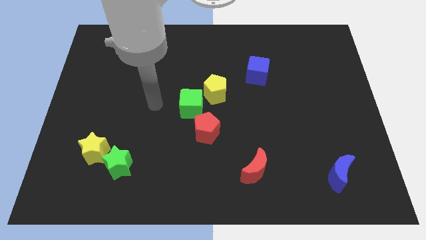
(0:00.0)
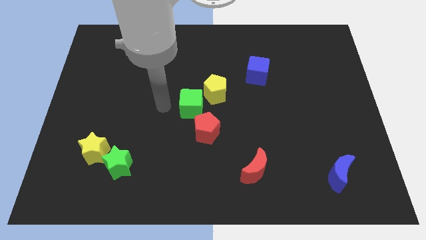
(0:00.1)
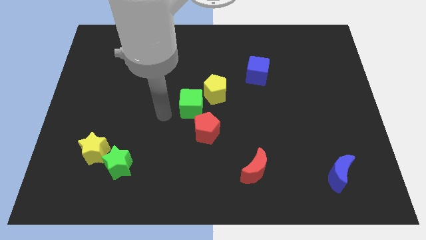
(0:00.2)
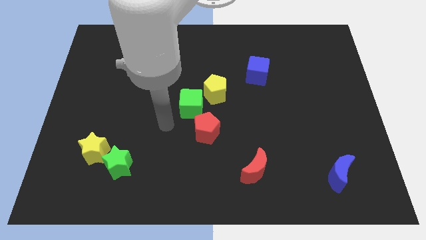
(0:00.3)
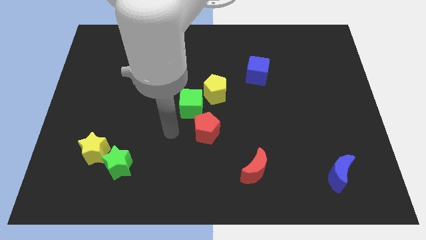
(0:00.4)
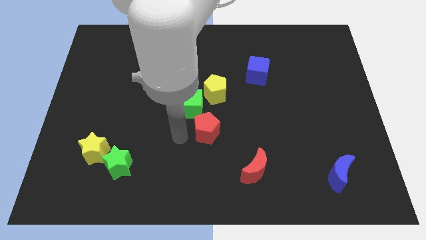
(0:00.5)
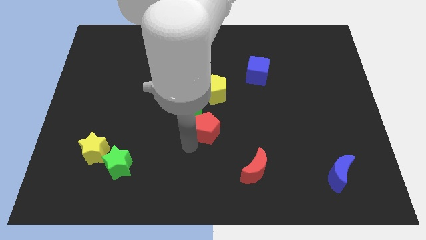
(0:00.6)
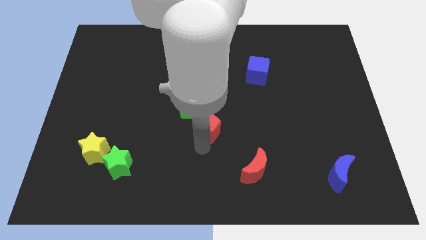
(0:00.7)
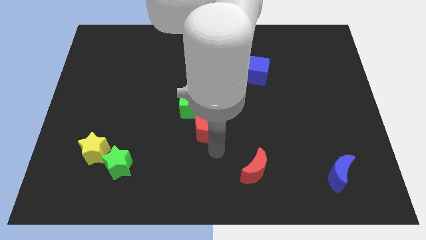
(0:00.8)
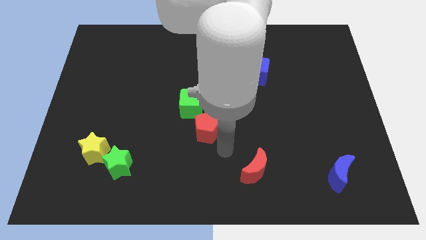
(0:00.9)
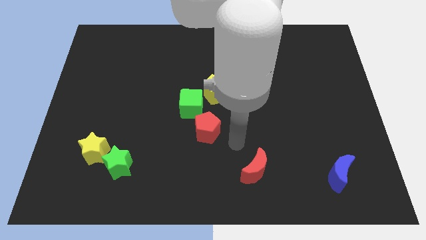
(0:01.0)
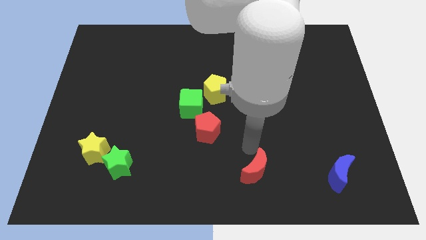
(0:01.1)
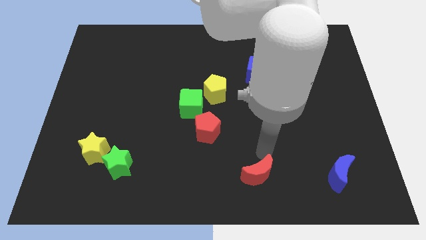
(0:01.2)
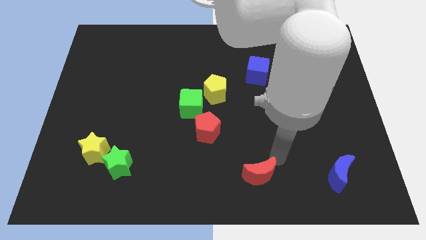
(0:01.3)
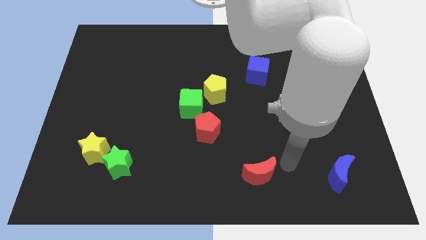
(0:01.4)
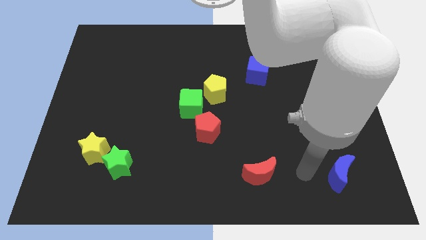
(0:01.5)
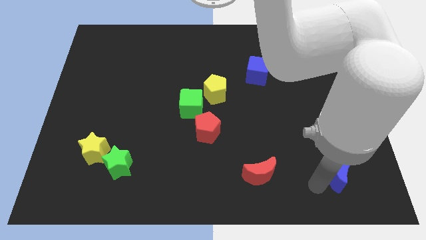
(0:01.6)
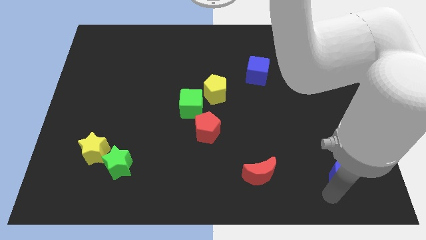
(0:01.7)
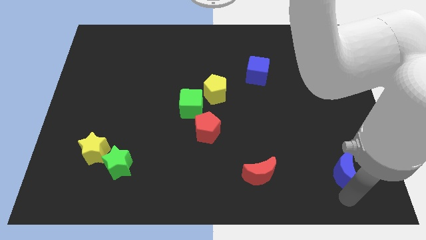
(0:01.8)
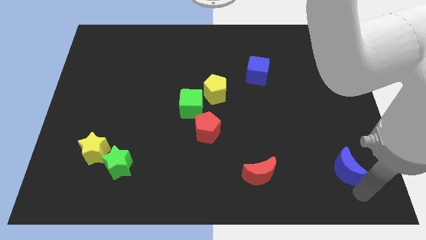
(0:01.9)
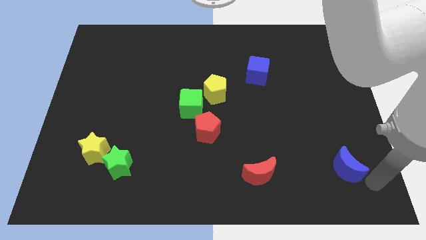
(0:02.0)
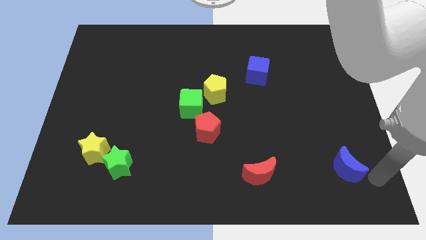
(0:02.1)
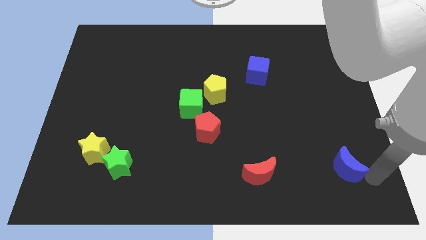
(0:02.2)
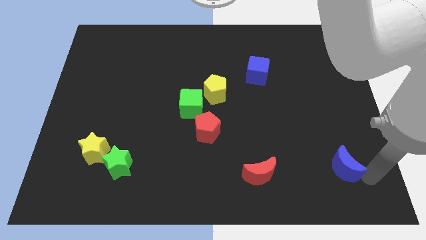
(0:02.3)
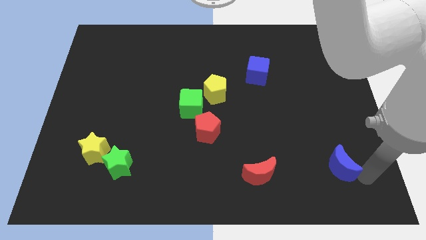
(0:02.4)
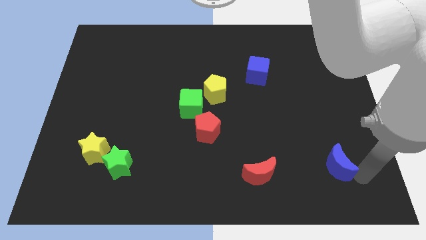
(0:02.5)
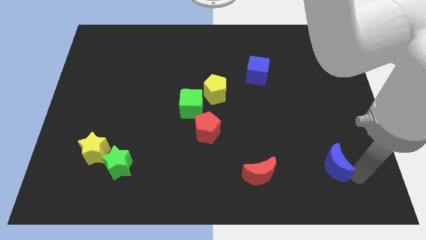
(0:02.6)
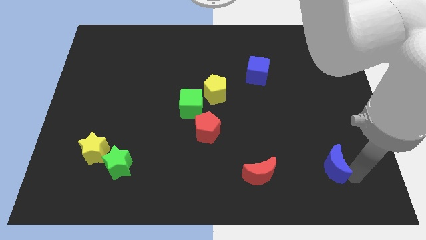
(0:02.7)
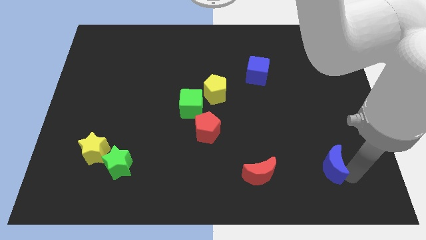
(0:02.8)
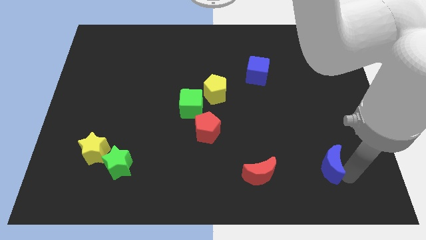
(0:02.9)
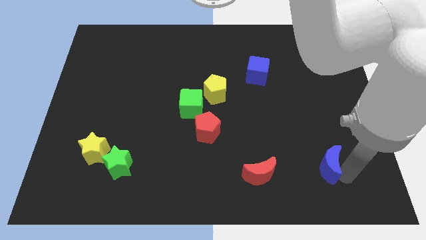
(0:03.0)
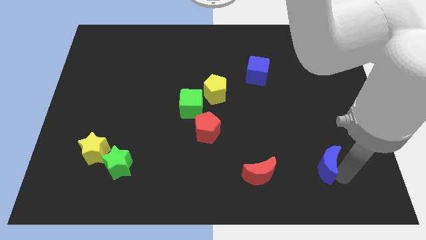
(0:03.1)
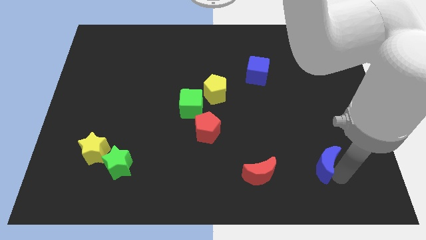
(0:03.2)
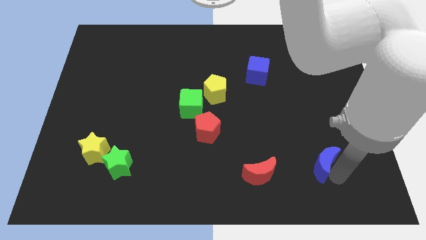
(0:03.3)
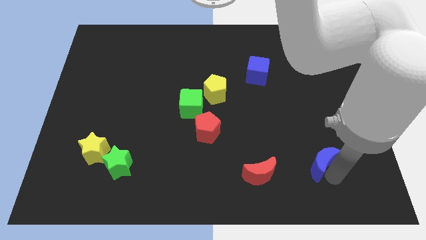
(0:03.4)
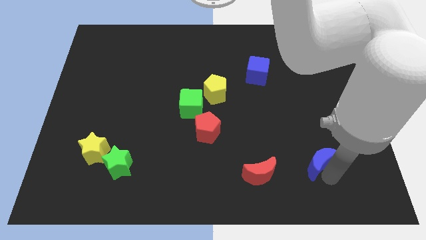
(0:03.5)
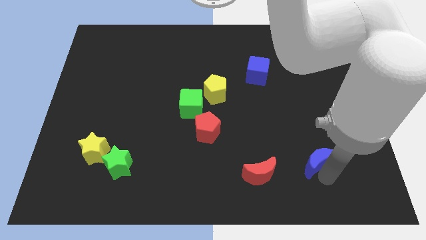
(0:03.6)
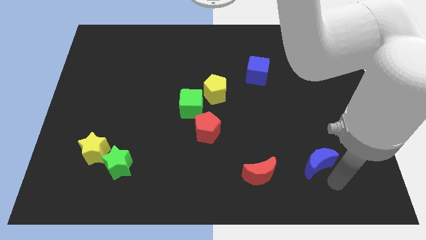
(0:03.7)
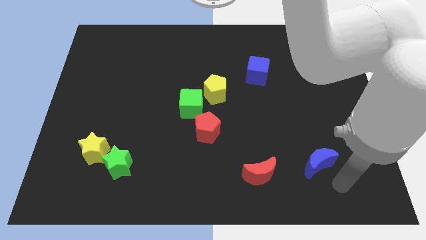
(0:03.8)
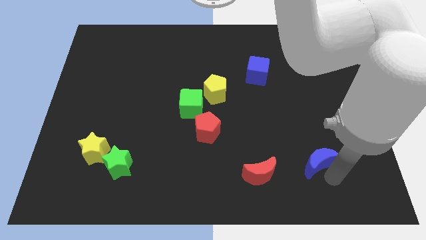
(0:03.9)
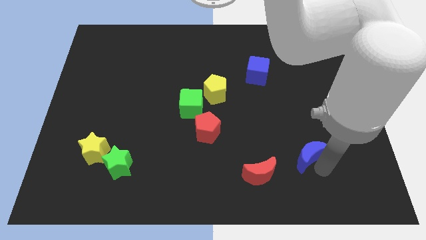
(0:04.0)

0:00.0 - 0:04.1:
slightly move the blue moon diagonally up and to the left

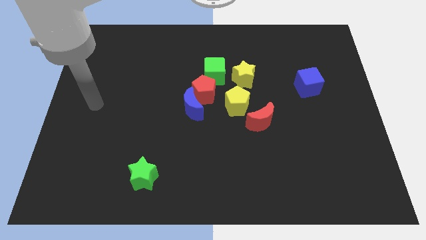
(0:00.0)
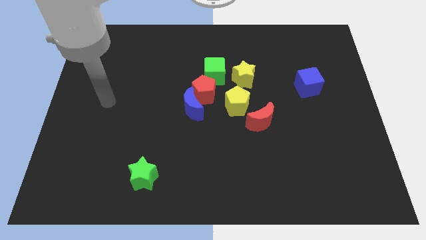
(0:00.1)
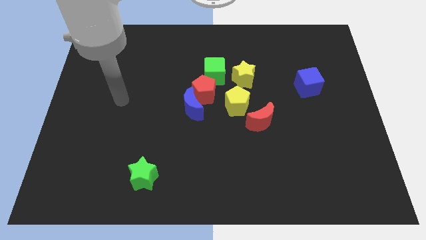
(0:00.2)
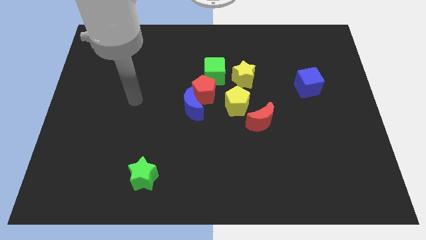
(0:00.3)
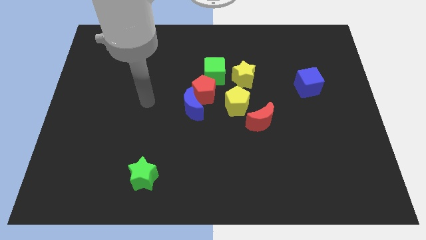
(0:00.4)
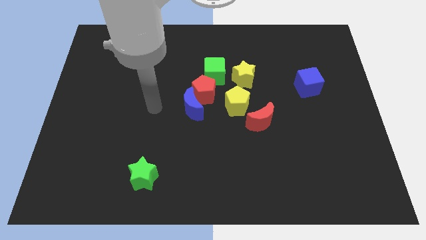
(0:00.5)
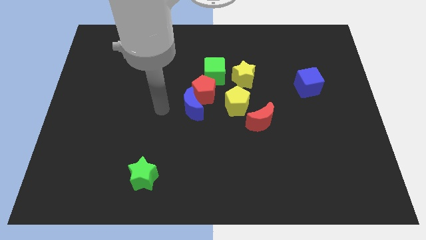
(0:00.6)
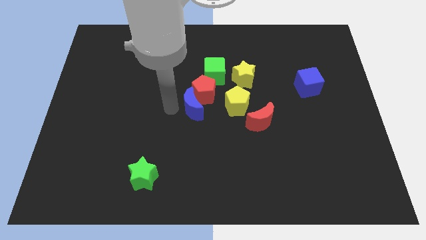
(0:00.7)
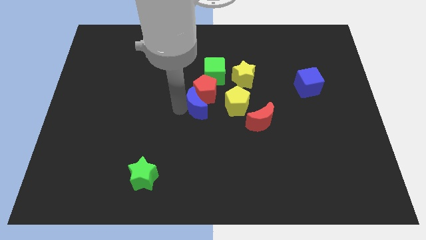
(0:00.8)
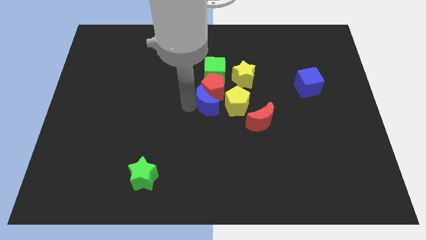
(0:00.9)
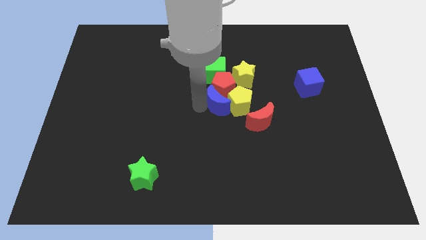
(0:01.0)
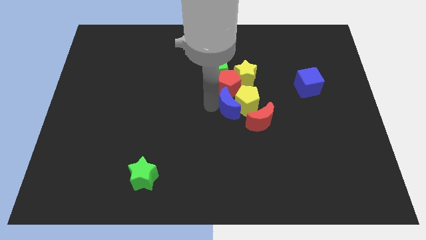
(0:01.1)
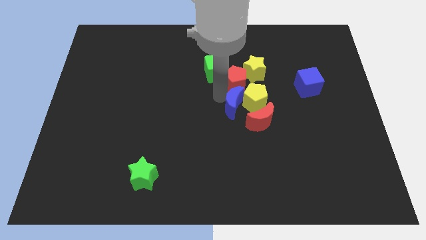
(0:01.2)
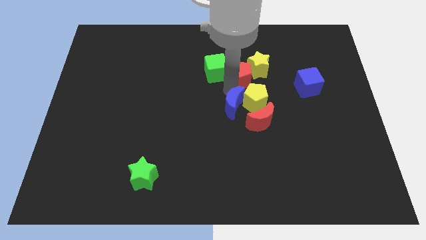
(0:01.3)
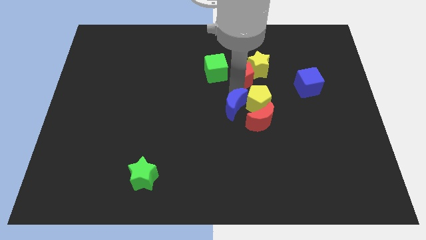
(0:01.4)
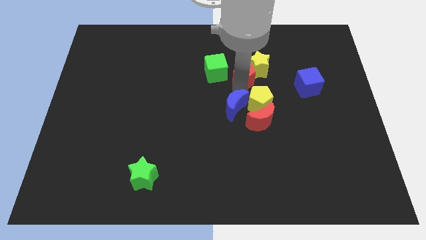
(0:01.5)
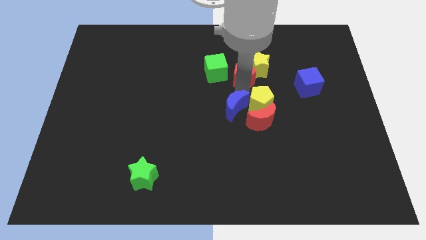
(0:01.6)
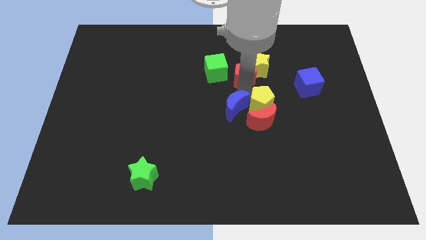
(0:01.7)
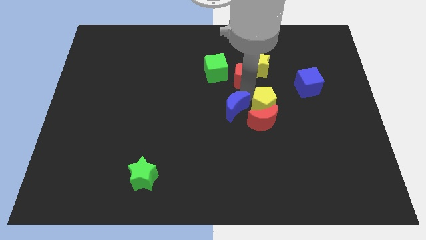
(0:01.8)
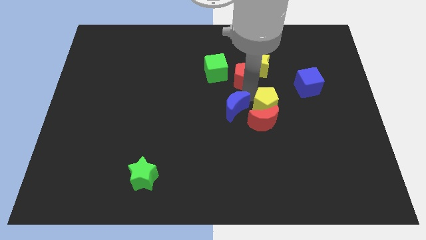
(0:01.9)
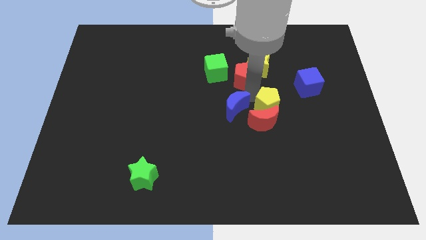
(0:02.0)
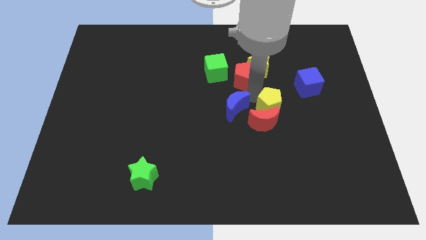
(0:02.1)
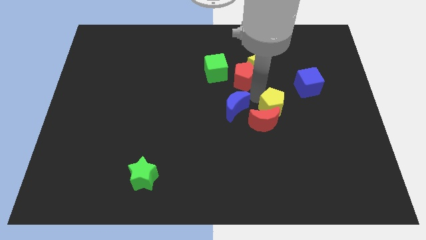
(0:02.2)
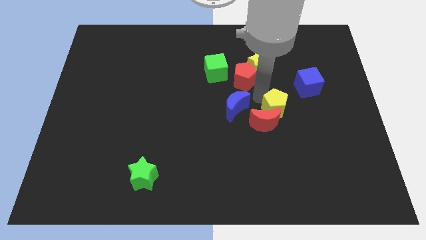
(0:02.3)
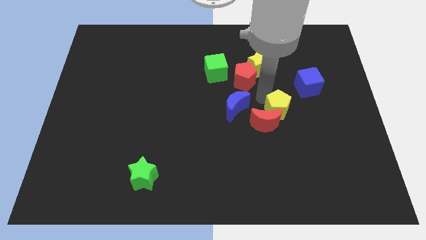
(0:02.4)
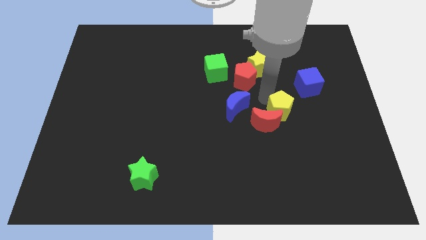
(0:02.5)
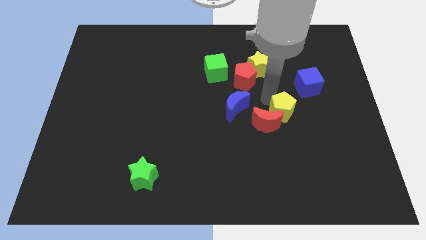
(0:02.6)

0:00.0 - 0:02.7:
slightly move the yellow pentagon down and to the right diagonally

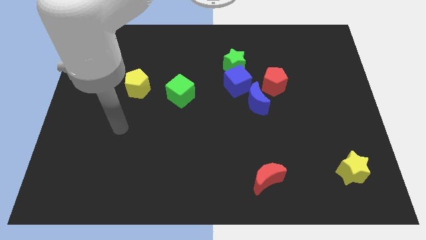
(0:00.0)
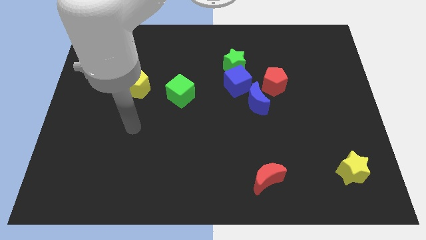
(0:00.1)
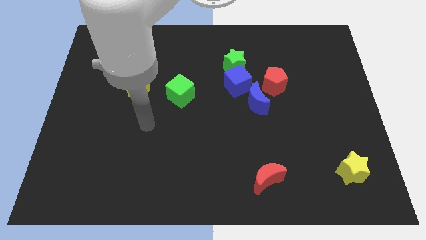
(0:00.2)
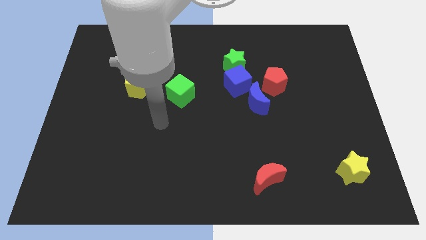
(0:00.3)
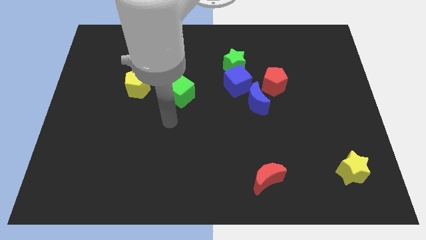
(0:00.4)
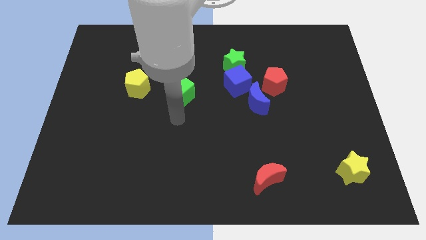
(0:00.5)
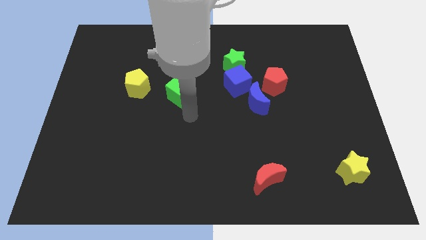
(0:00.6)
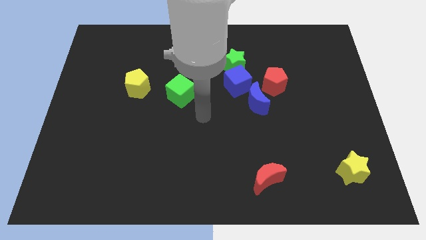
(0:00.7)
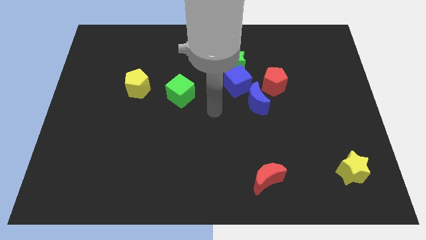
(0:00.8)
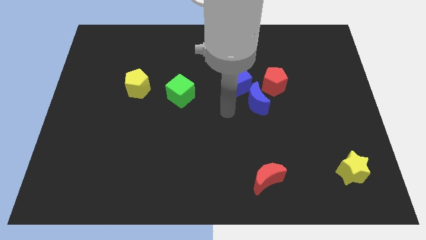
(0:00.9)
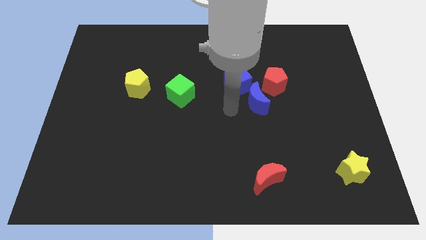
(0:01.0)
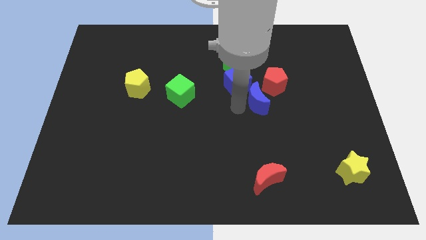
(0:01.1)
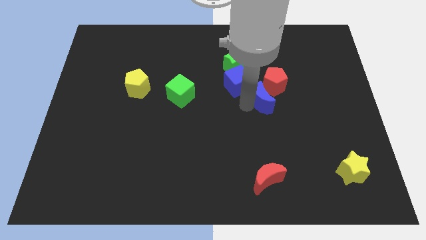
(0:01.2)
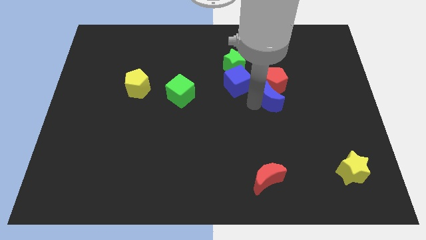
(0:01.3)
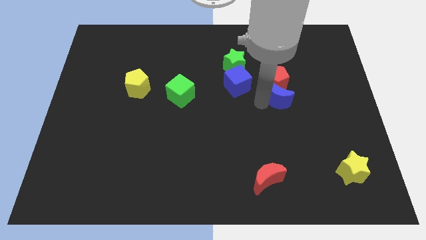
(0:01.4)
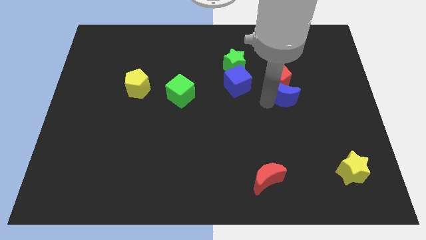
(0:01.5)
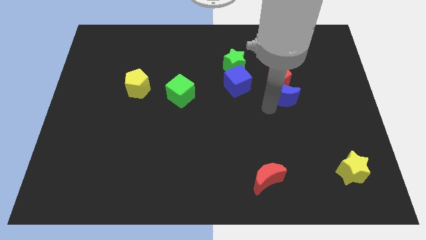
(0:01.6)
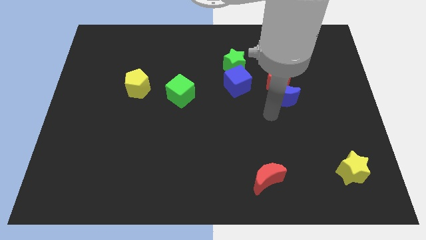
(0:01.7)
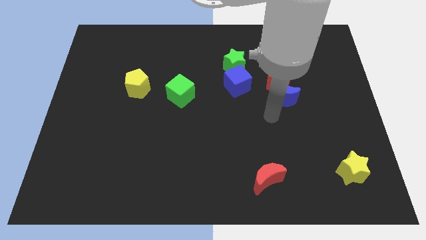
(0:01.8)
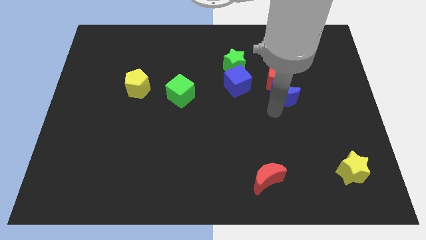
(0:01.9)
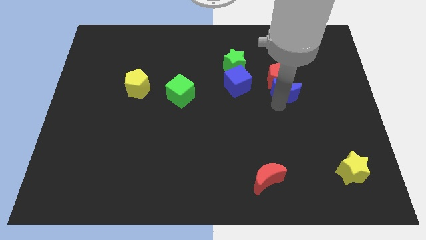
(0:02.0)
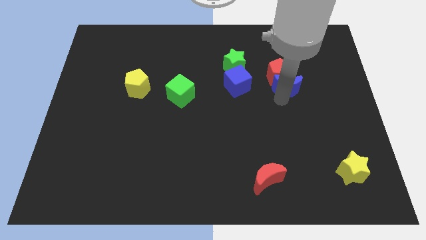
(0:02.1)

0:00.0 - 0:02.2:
move the blue moon somewhat up and to the right diagonally
